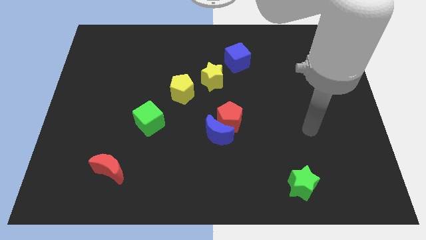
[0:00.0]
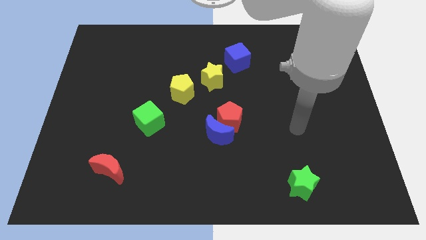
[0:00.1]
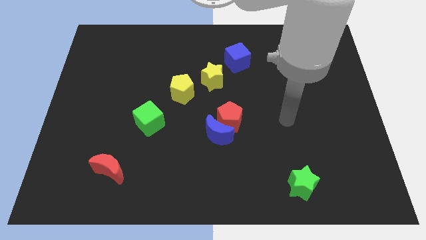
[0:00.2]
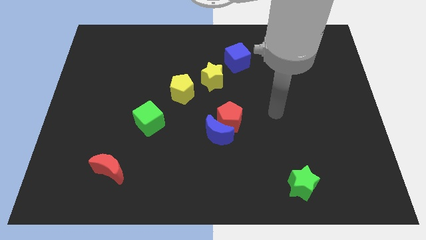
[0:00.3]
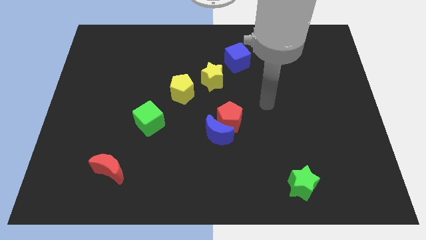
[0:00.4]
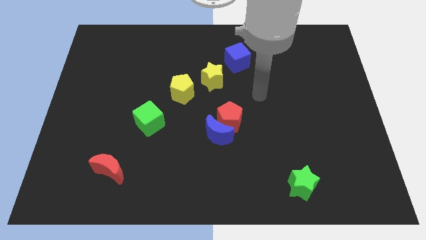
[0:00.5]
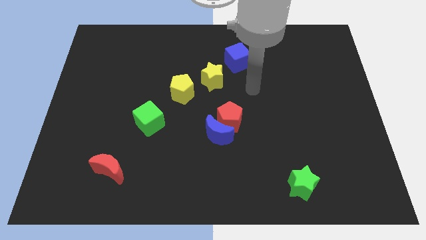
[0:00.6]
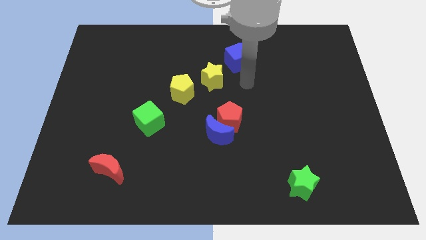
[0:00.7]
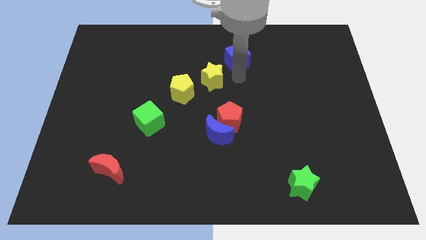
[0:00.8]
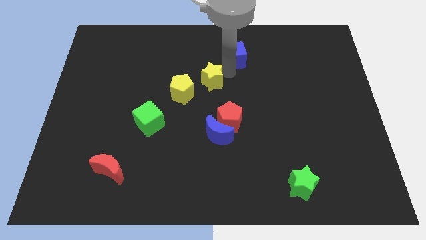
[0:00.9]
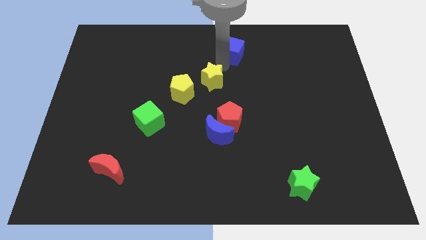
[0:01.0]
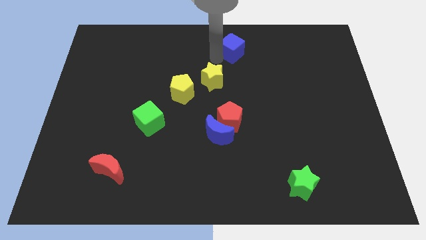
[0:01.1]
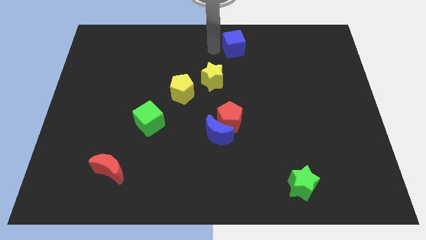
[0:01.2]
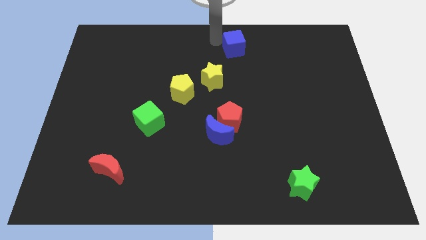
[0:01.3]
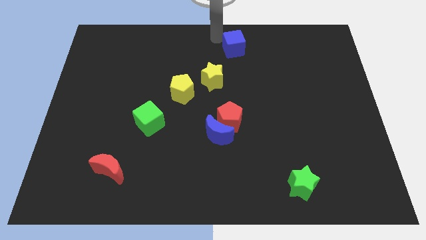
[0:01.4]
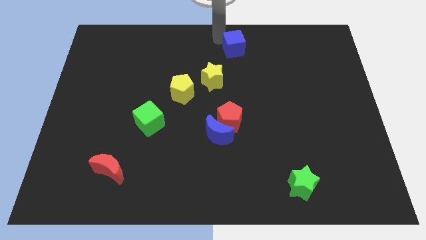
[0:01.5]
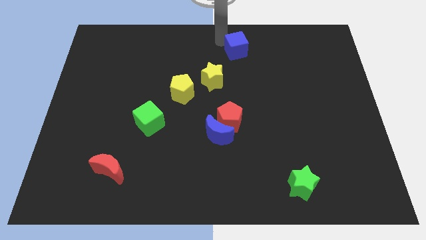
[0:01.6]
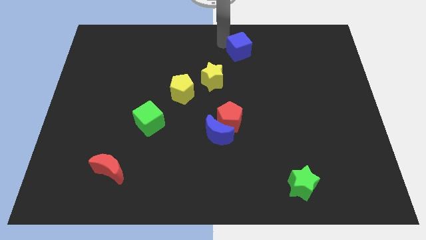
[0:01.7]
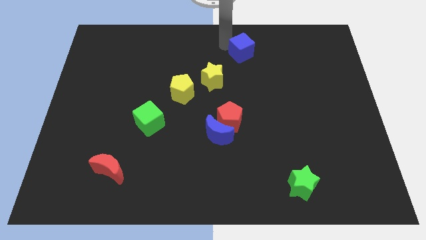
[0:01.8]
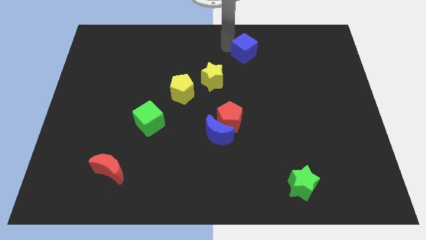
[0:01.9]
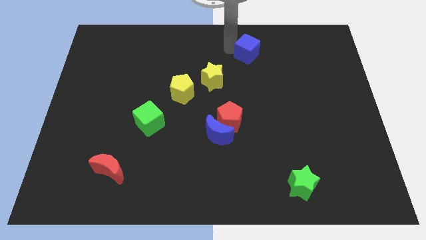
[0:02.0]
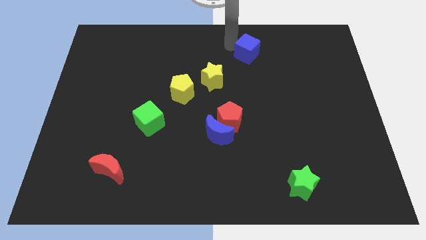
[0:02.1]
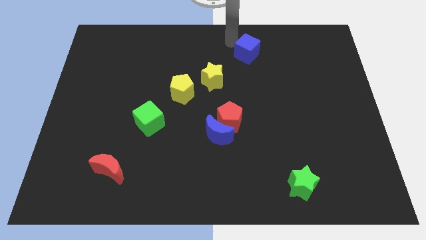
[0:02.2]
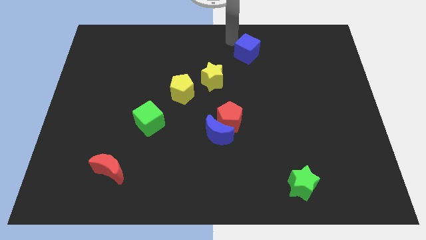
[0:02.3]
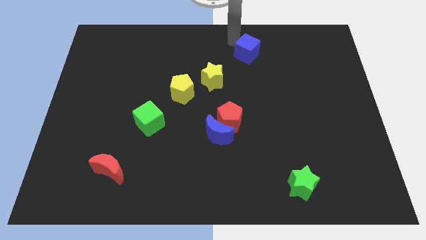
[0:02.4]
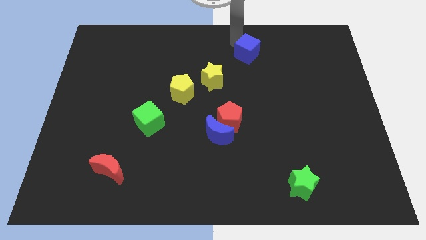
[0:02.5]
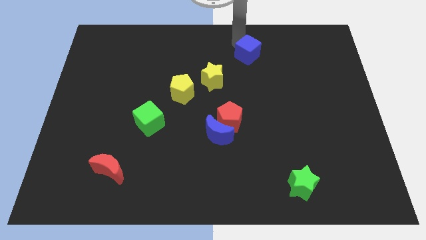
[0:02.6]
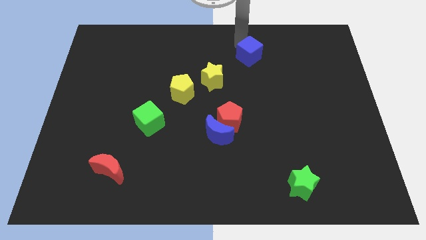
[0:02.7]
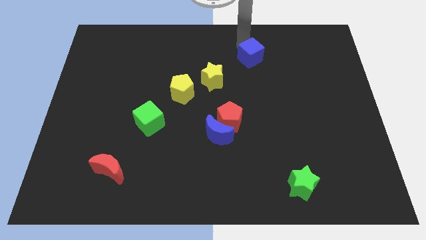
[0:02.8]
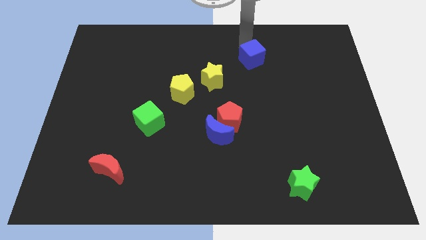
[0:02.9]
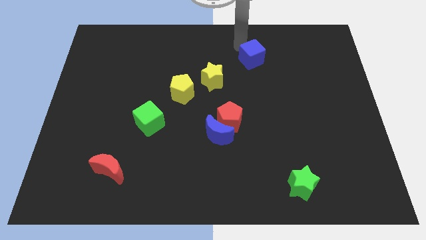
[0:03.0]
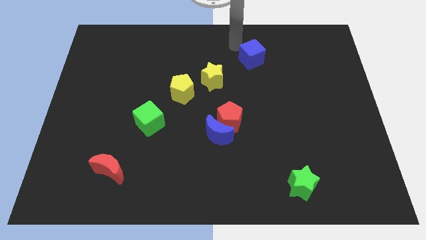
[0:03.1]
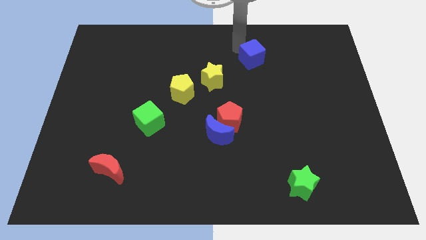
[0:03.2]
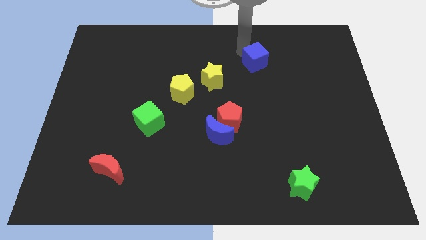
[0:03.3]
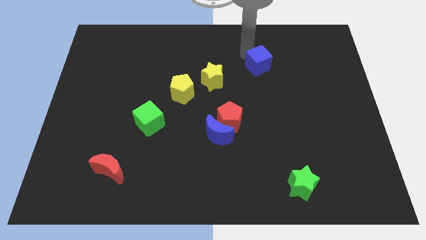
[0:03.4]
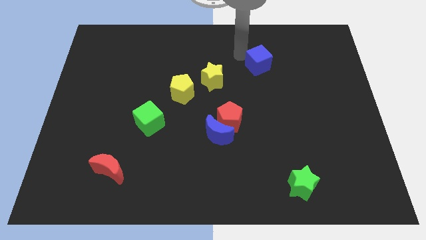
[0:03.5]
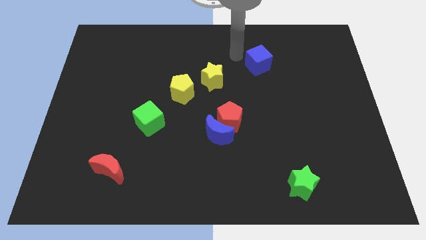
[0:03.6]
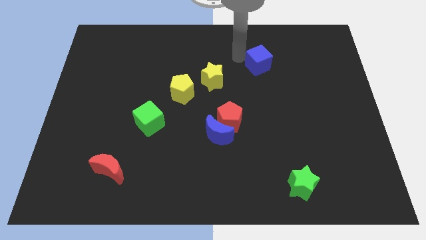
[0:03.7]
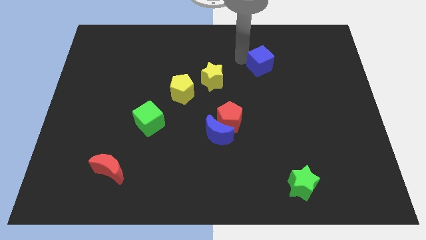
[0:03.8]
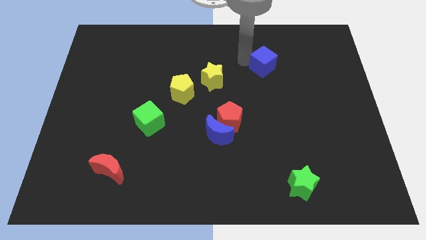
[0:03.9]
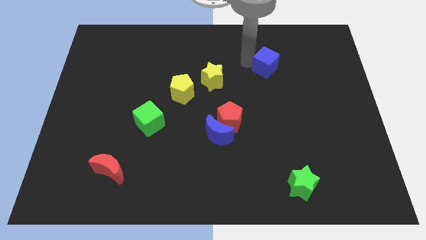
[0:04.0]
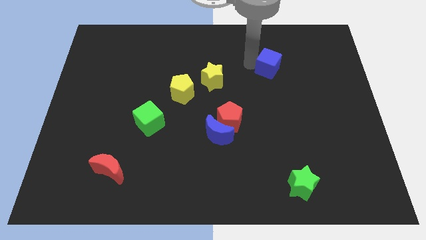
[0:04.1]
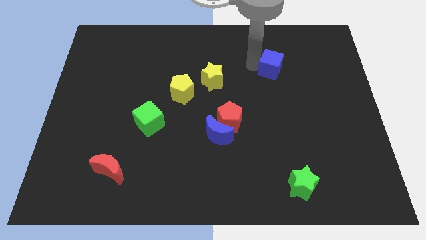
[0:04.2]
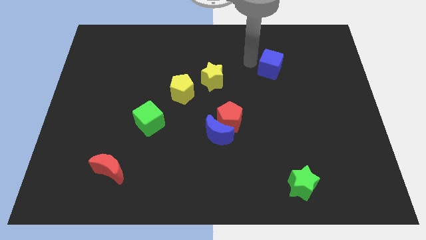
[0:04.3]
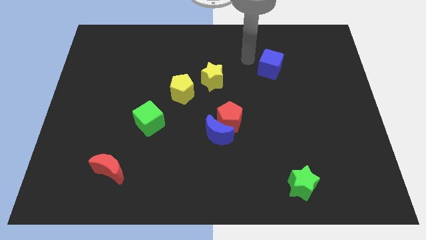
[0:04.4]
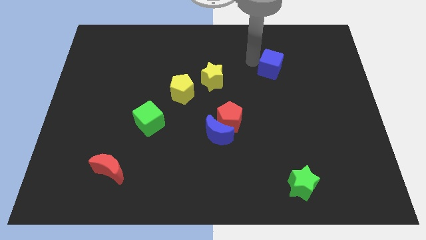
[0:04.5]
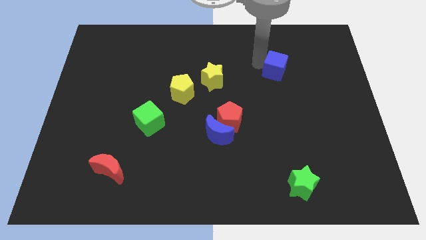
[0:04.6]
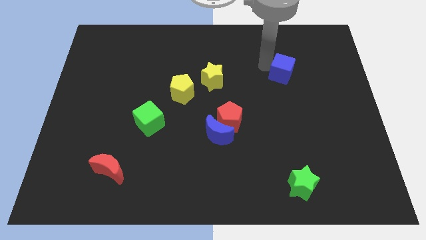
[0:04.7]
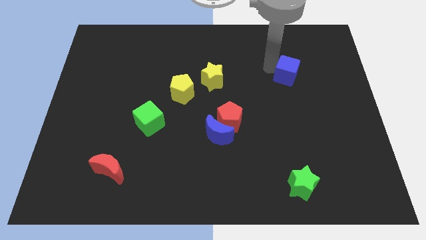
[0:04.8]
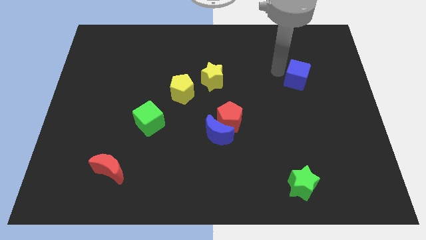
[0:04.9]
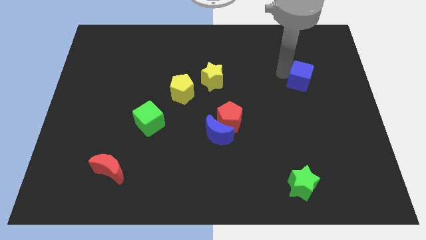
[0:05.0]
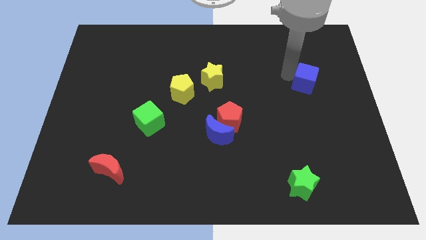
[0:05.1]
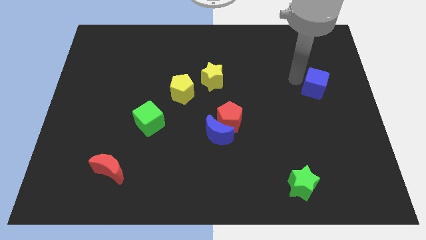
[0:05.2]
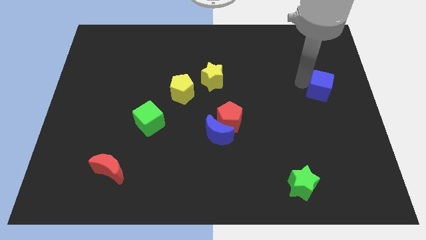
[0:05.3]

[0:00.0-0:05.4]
move the blue cube to the center right

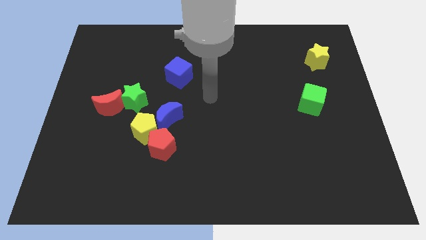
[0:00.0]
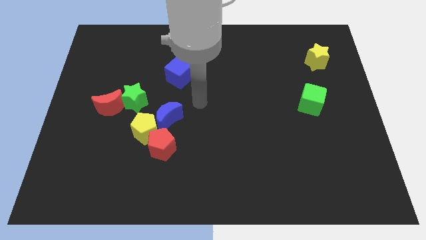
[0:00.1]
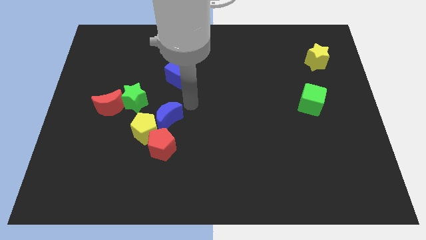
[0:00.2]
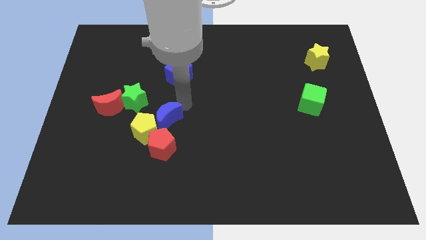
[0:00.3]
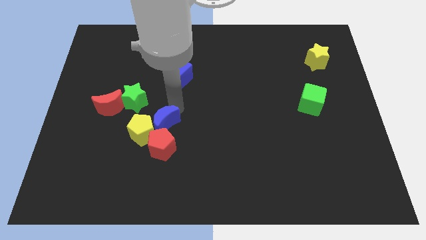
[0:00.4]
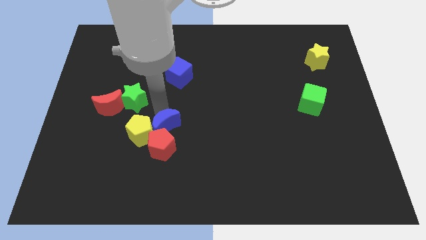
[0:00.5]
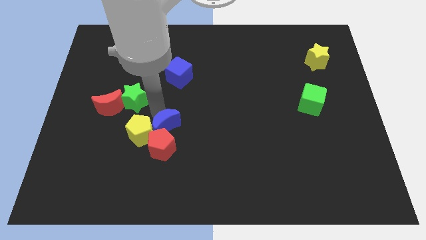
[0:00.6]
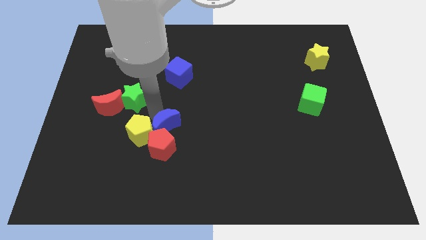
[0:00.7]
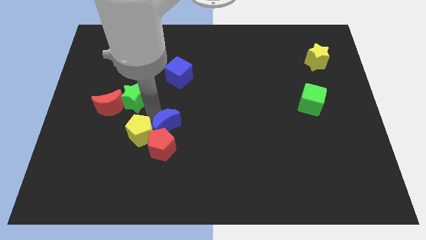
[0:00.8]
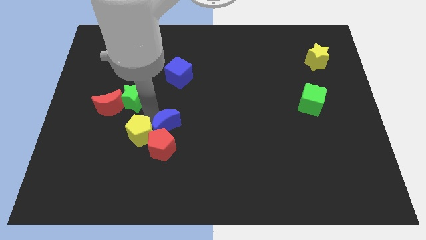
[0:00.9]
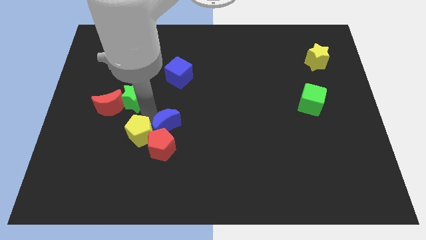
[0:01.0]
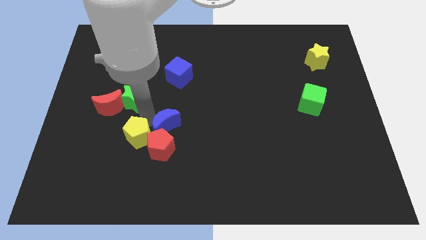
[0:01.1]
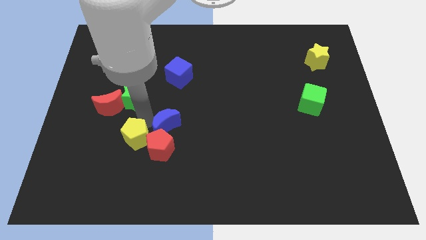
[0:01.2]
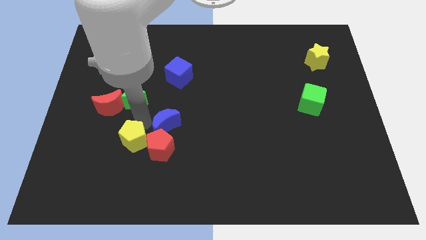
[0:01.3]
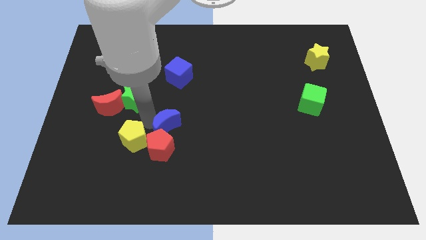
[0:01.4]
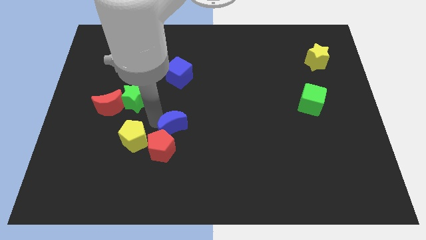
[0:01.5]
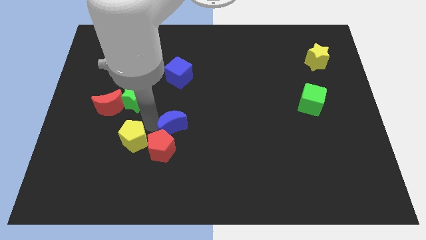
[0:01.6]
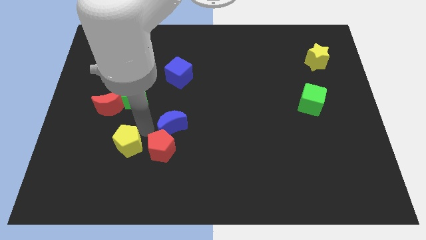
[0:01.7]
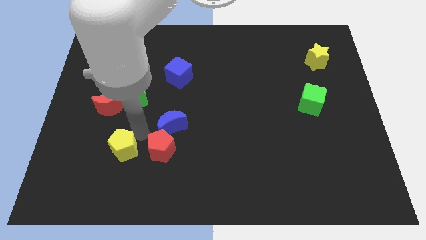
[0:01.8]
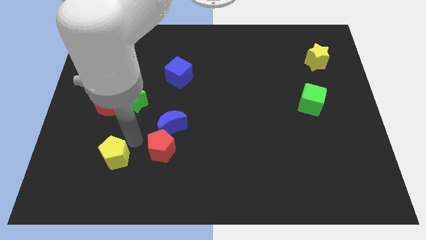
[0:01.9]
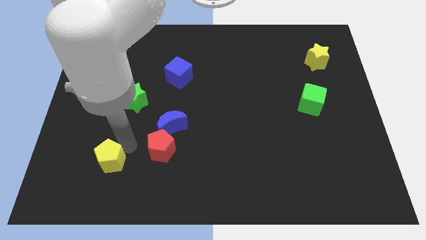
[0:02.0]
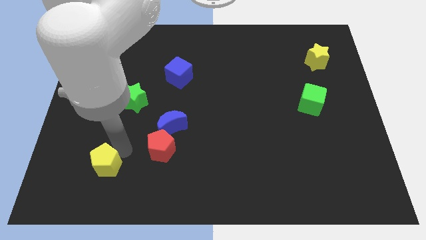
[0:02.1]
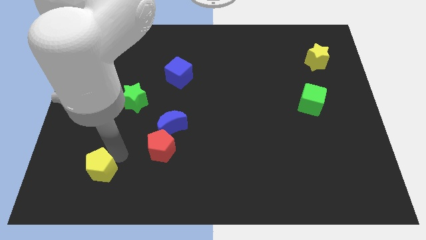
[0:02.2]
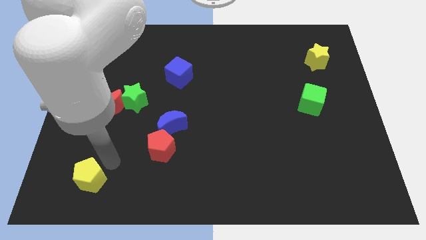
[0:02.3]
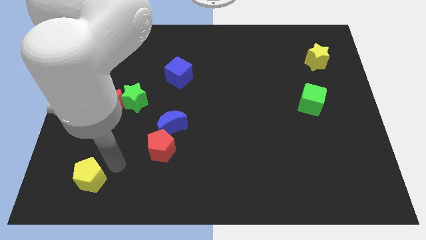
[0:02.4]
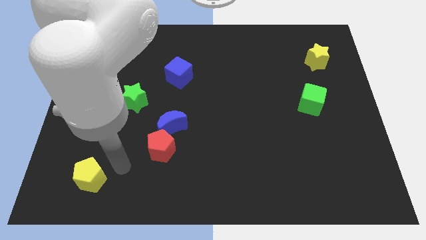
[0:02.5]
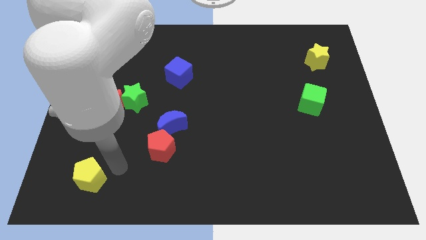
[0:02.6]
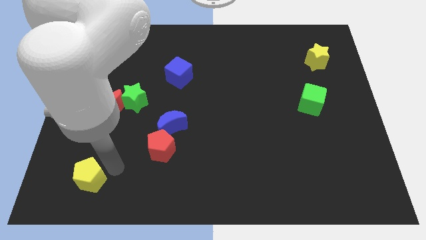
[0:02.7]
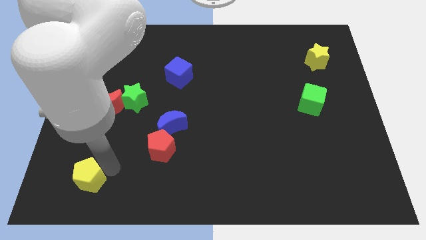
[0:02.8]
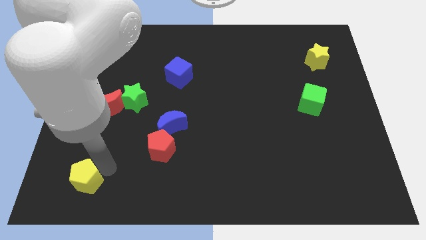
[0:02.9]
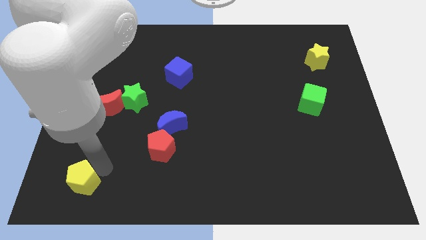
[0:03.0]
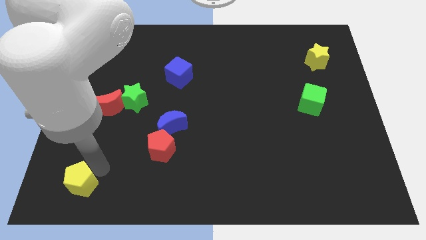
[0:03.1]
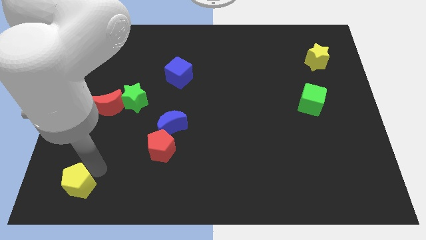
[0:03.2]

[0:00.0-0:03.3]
push the yellow pentagon to the lower left corner
